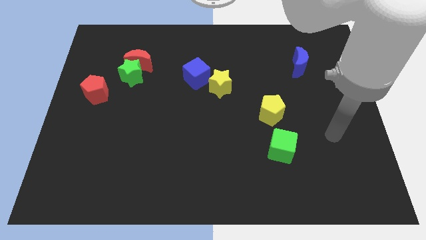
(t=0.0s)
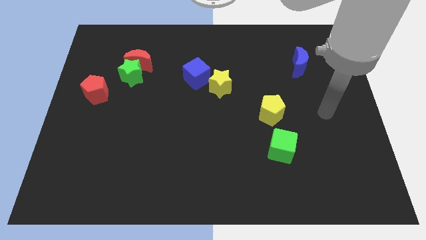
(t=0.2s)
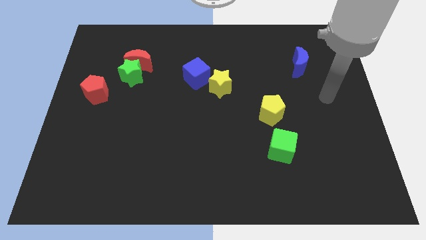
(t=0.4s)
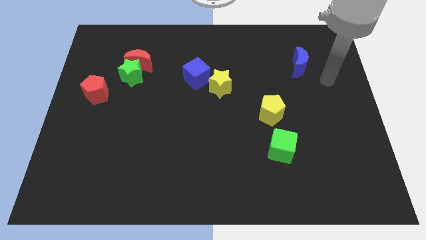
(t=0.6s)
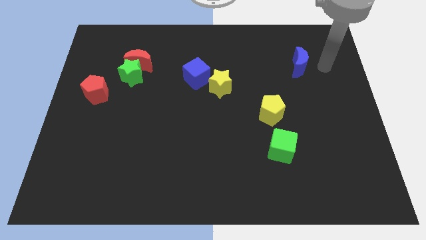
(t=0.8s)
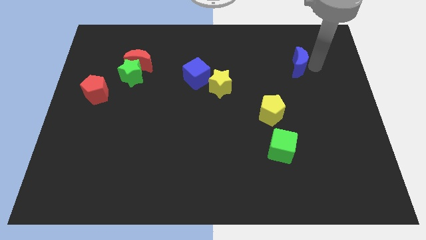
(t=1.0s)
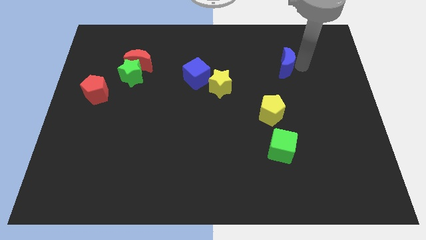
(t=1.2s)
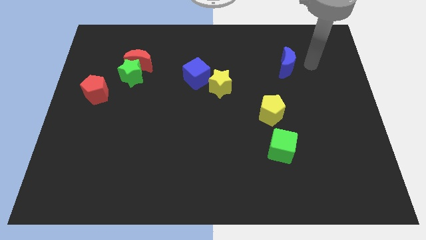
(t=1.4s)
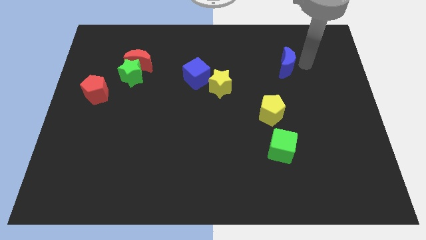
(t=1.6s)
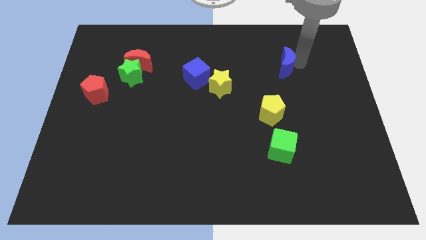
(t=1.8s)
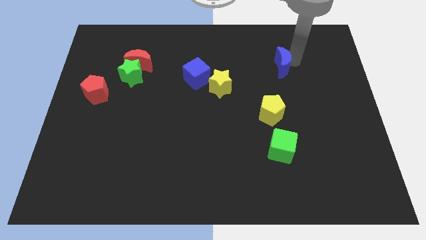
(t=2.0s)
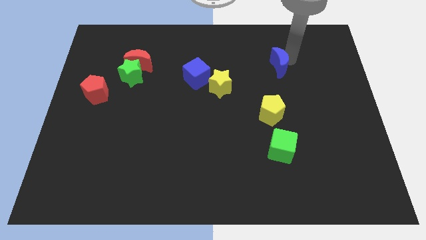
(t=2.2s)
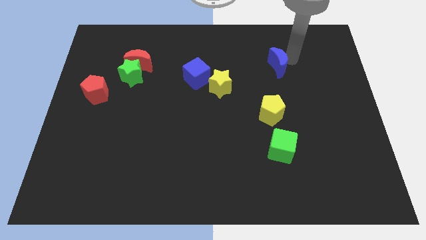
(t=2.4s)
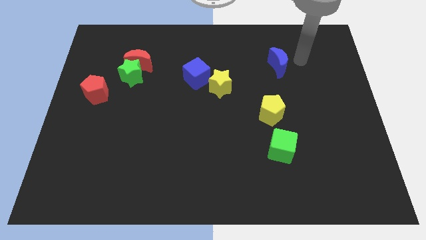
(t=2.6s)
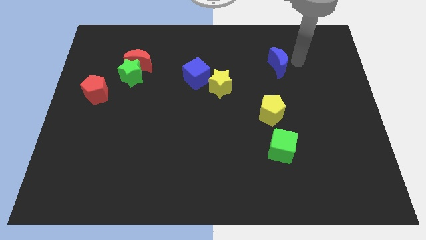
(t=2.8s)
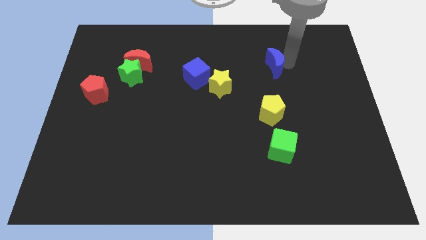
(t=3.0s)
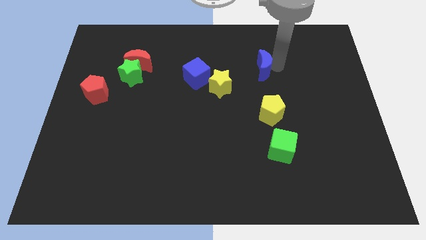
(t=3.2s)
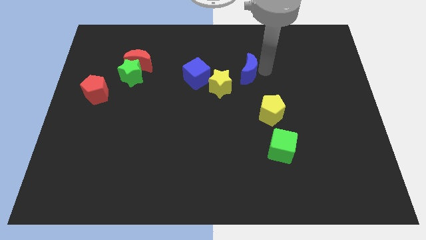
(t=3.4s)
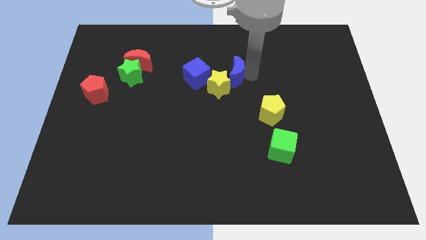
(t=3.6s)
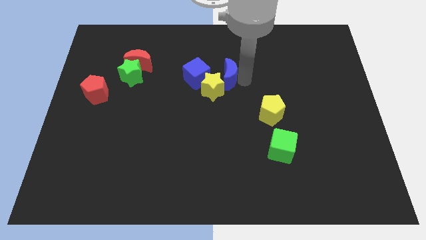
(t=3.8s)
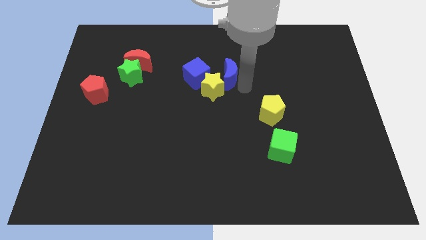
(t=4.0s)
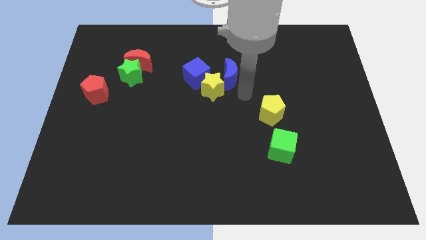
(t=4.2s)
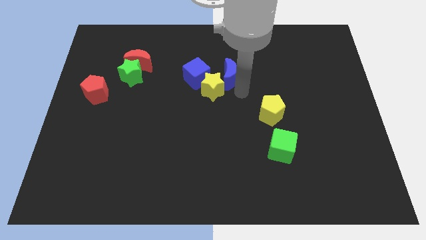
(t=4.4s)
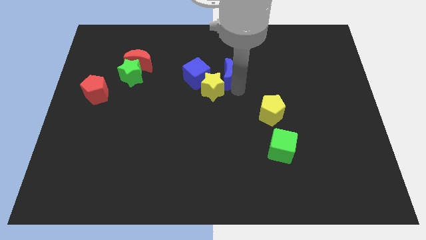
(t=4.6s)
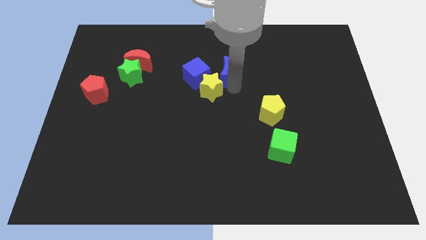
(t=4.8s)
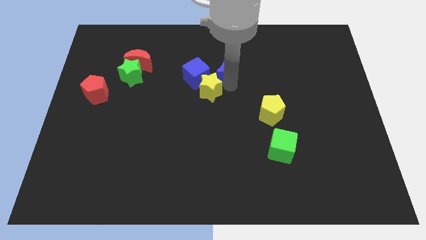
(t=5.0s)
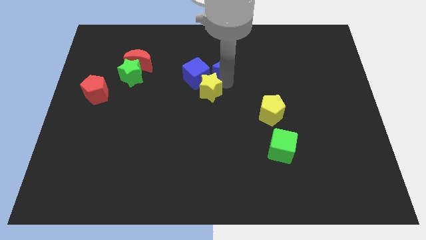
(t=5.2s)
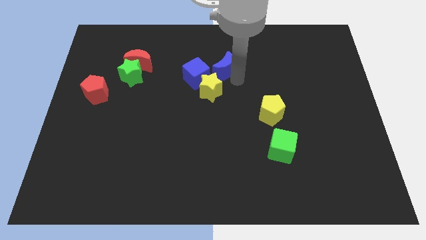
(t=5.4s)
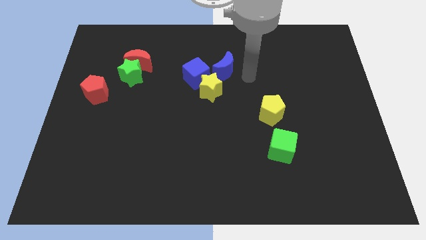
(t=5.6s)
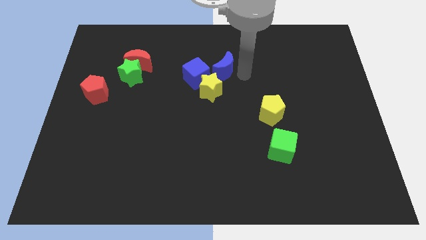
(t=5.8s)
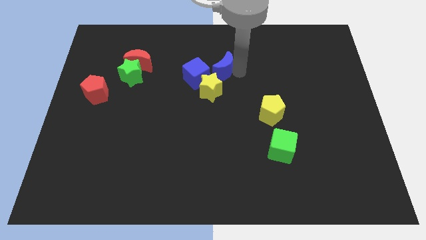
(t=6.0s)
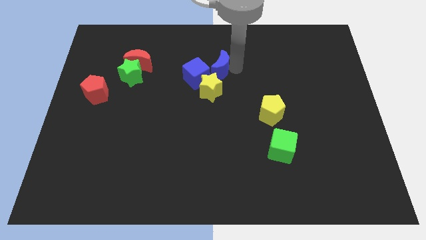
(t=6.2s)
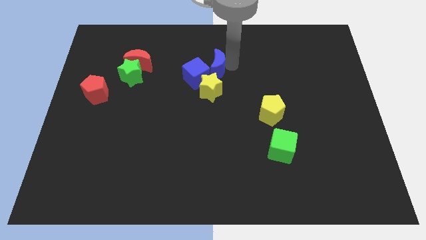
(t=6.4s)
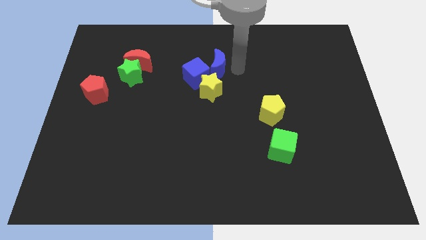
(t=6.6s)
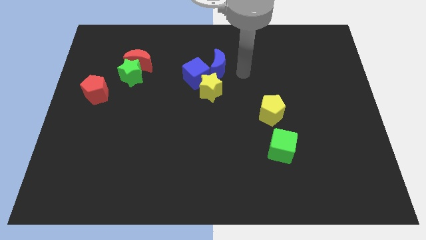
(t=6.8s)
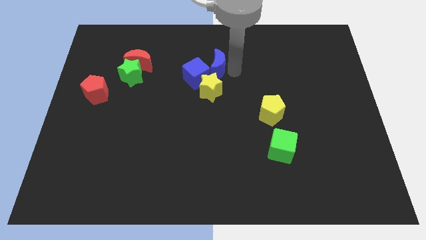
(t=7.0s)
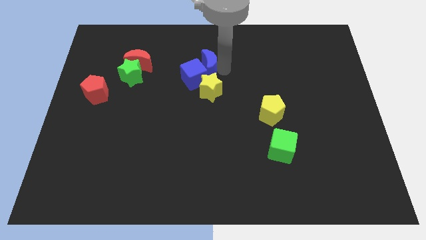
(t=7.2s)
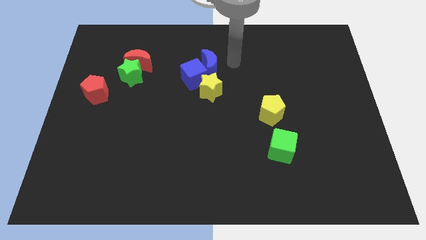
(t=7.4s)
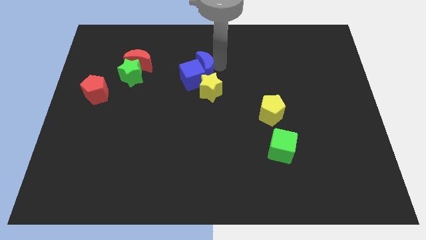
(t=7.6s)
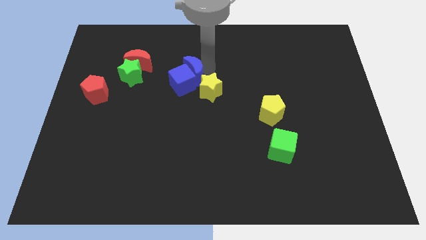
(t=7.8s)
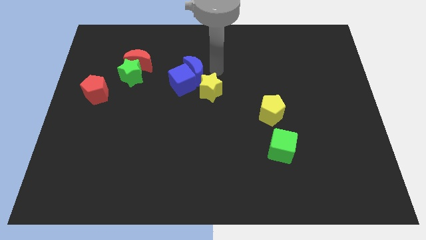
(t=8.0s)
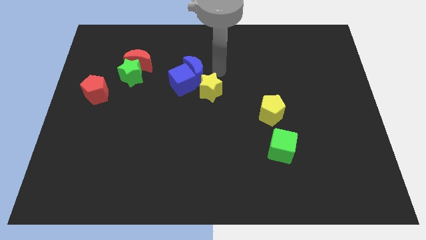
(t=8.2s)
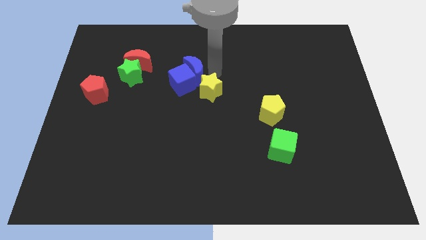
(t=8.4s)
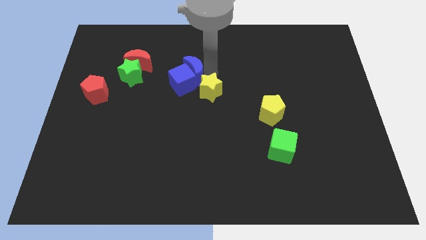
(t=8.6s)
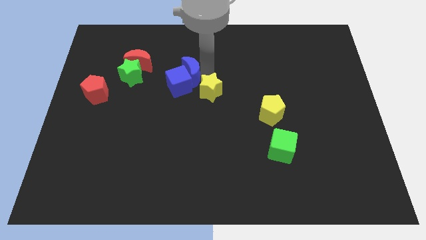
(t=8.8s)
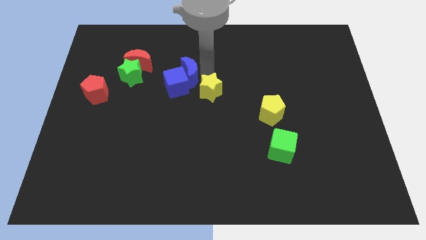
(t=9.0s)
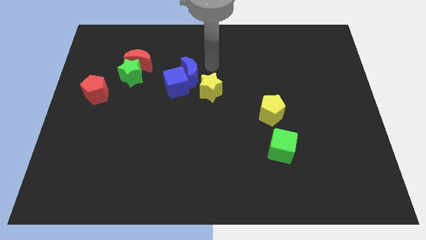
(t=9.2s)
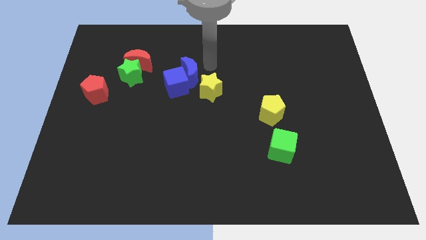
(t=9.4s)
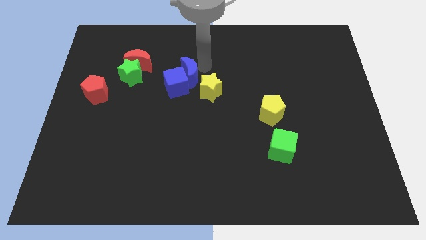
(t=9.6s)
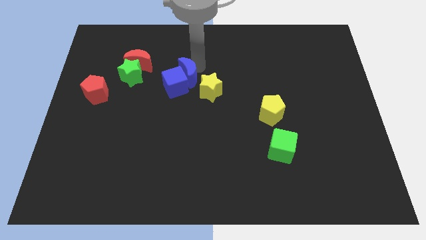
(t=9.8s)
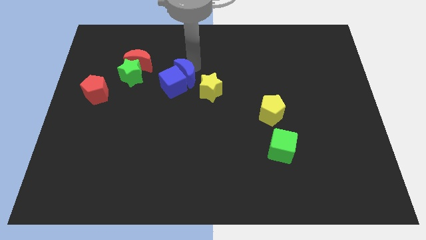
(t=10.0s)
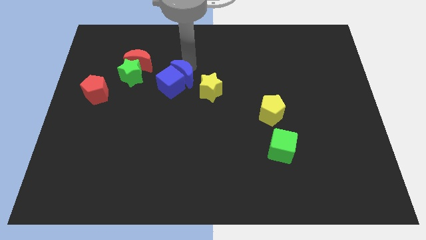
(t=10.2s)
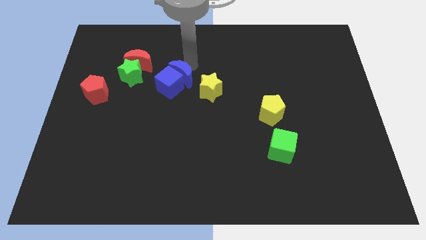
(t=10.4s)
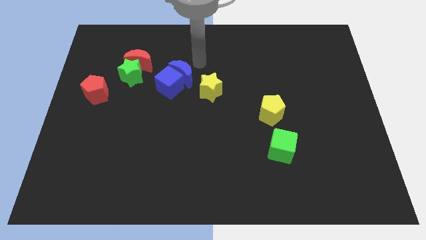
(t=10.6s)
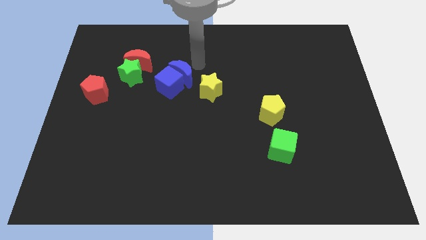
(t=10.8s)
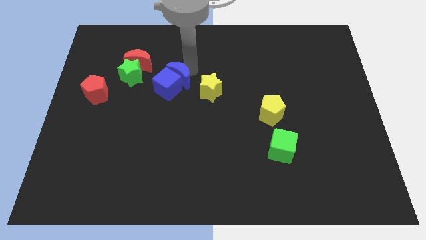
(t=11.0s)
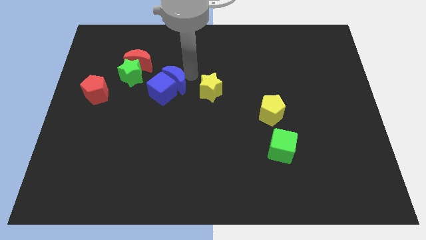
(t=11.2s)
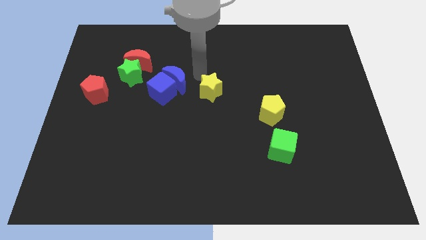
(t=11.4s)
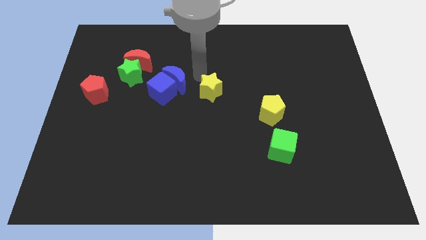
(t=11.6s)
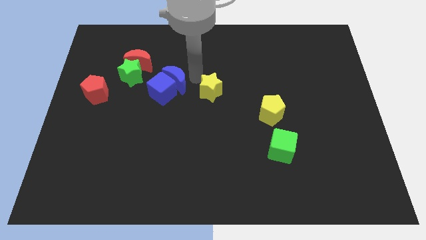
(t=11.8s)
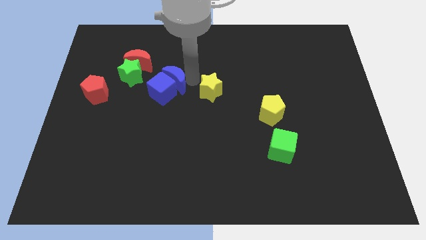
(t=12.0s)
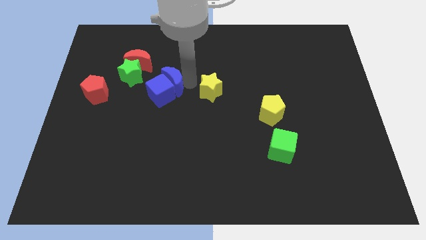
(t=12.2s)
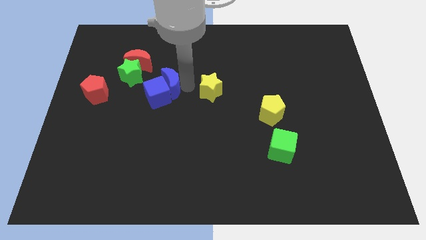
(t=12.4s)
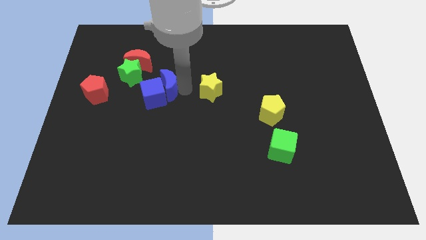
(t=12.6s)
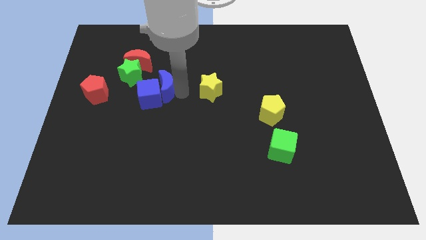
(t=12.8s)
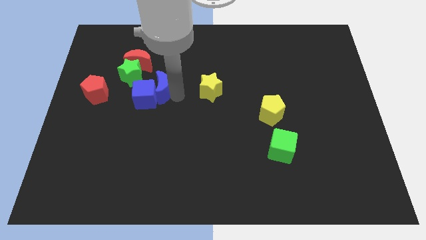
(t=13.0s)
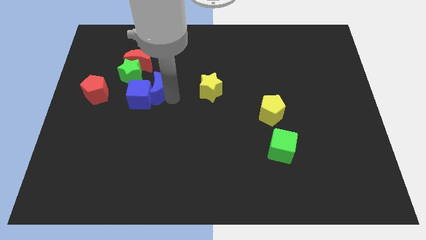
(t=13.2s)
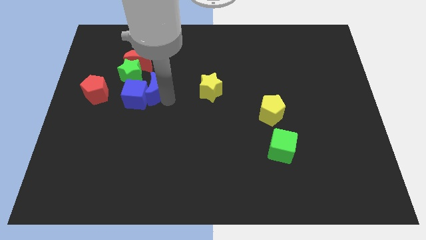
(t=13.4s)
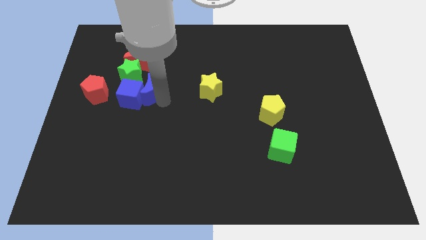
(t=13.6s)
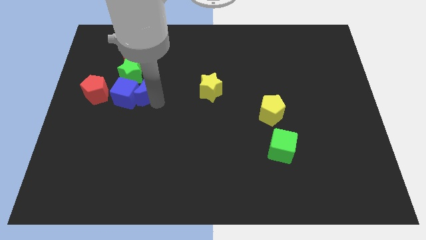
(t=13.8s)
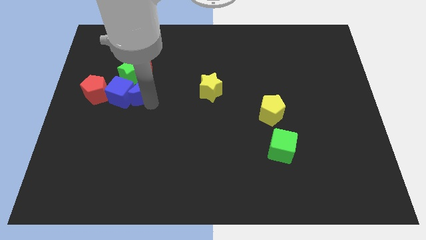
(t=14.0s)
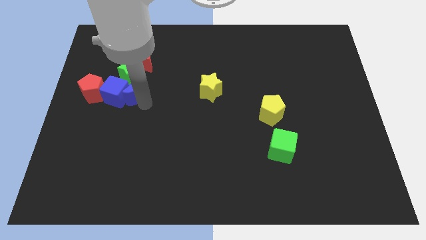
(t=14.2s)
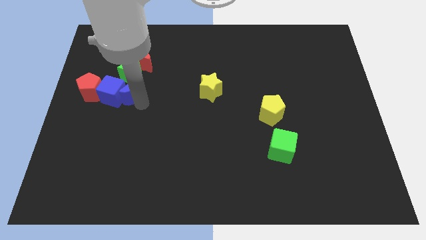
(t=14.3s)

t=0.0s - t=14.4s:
slide the blue moon next to the green star

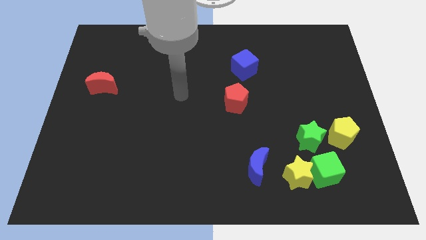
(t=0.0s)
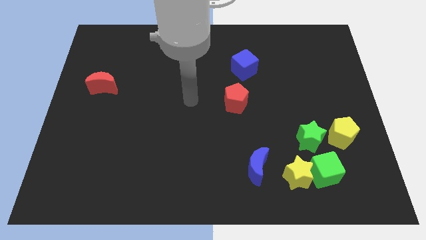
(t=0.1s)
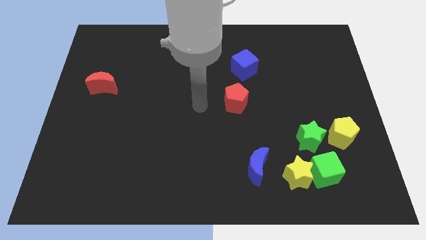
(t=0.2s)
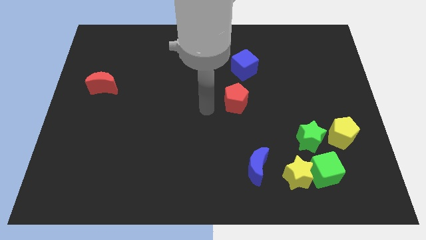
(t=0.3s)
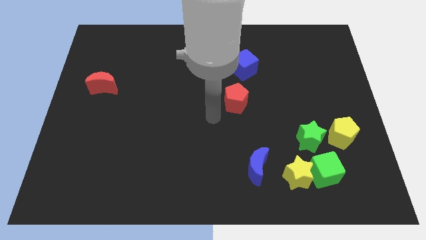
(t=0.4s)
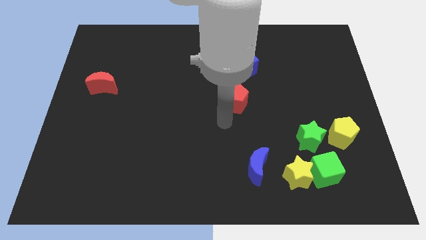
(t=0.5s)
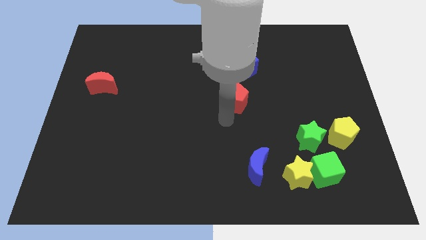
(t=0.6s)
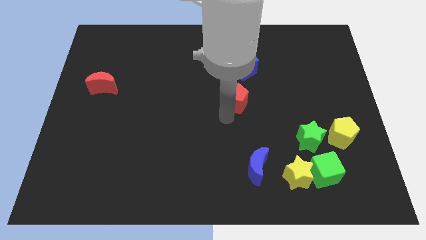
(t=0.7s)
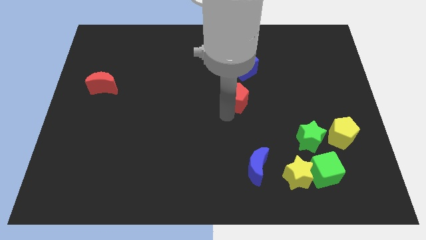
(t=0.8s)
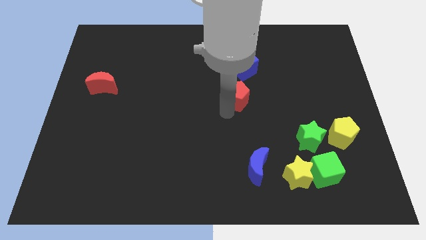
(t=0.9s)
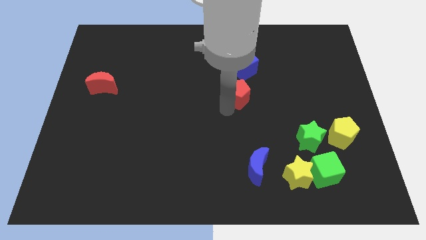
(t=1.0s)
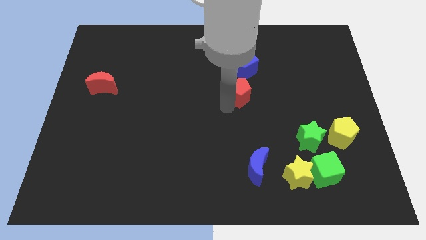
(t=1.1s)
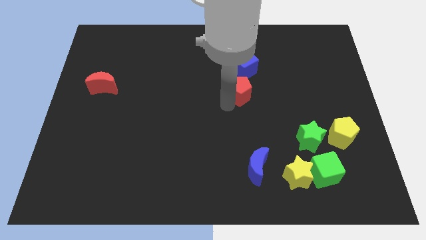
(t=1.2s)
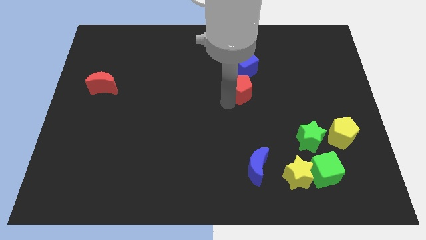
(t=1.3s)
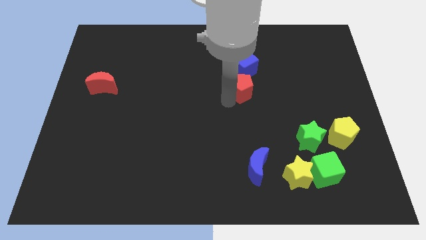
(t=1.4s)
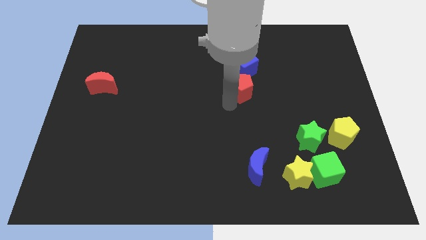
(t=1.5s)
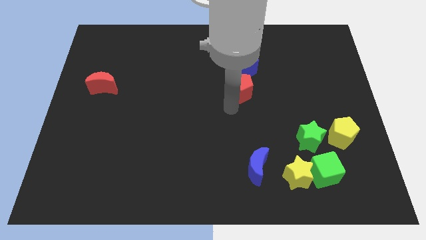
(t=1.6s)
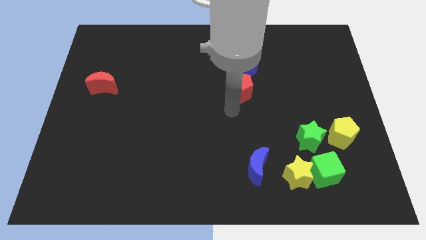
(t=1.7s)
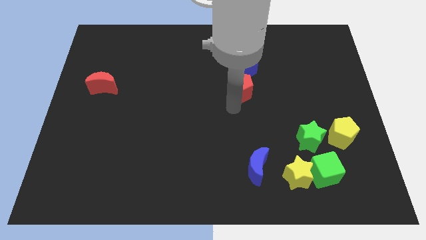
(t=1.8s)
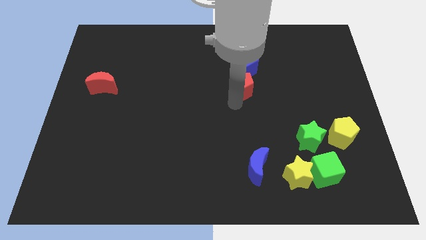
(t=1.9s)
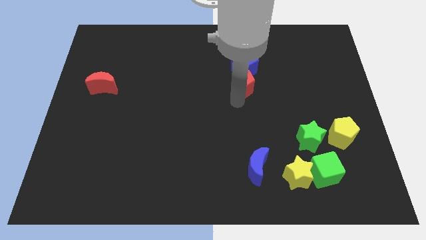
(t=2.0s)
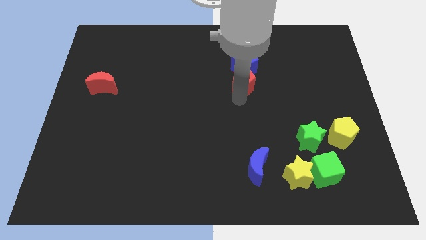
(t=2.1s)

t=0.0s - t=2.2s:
move the red pentagon close to the blue cube
